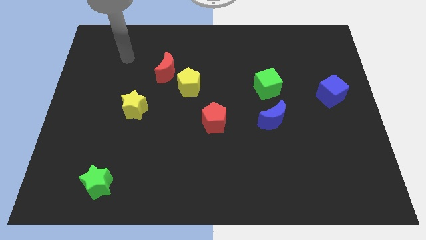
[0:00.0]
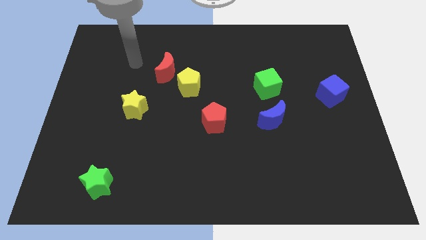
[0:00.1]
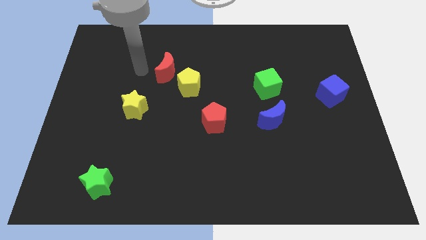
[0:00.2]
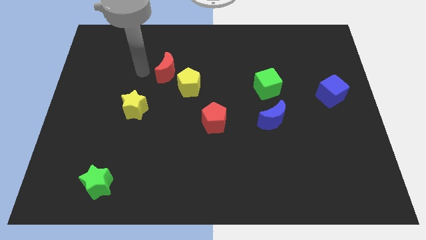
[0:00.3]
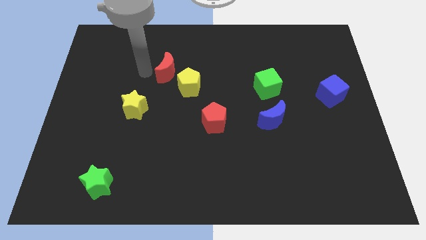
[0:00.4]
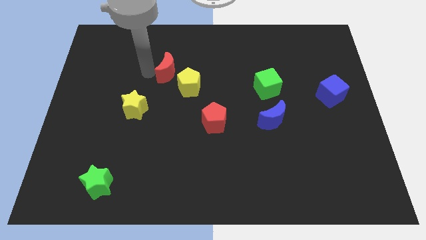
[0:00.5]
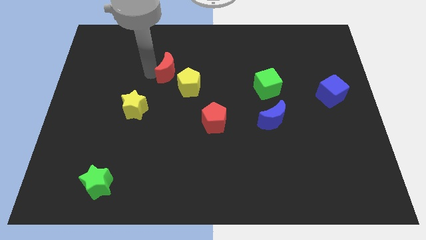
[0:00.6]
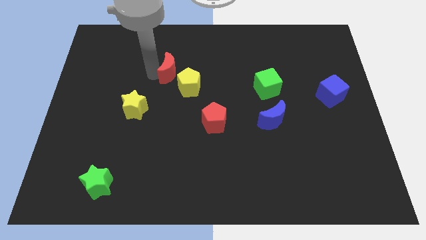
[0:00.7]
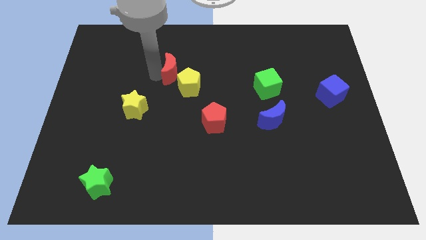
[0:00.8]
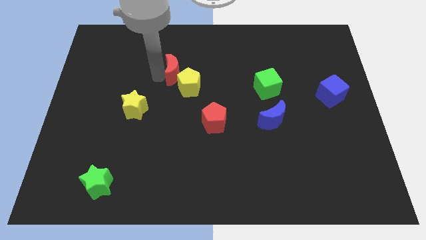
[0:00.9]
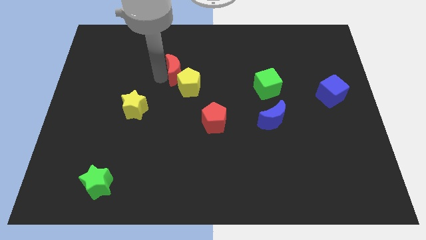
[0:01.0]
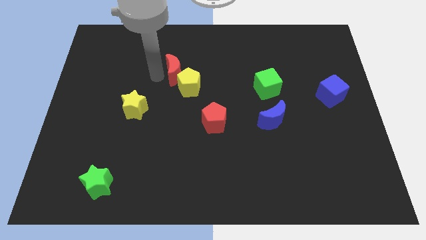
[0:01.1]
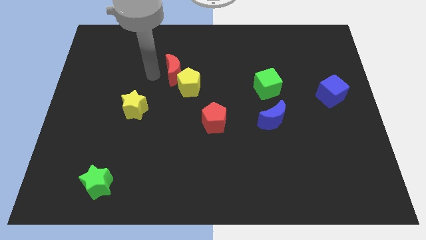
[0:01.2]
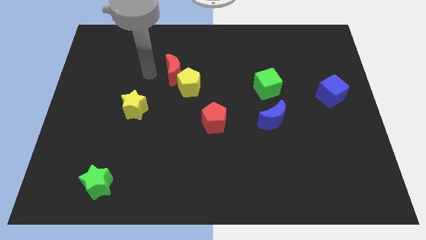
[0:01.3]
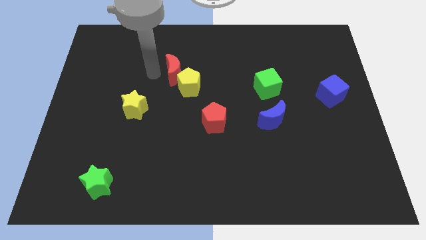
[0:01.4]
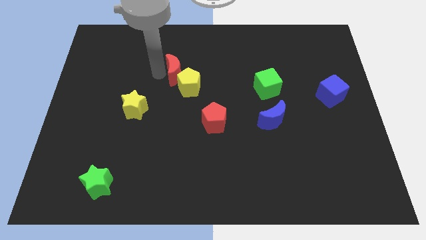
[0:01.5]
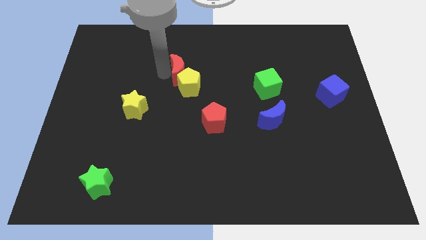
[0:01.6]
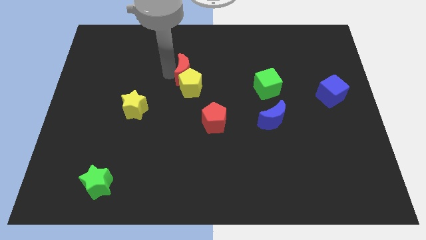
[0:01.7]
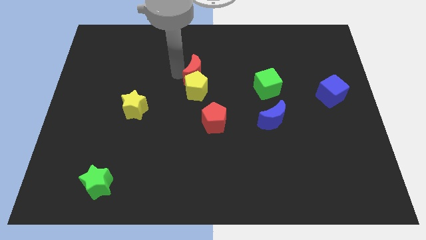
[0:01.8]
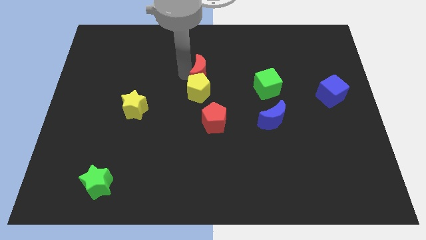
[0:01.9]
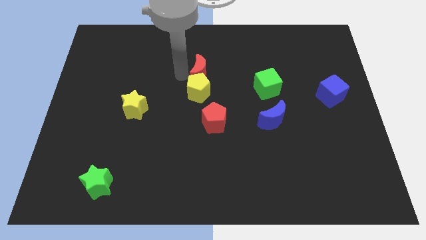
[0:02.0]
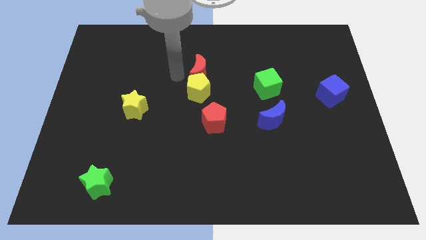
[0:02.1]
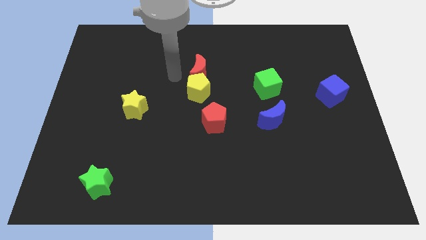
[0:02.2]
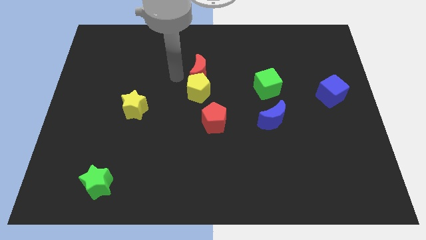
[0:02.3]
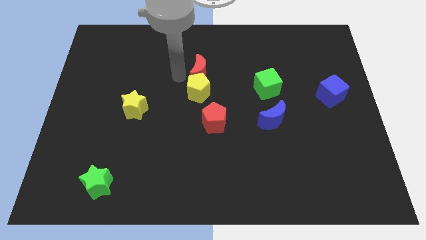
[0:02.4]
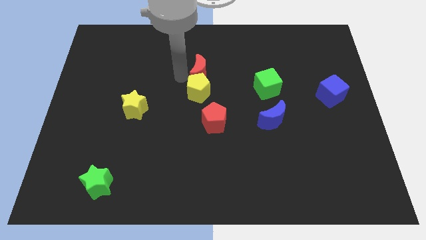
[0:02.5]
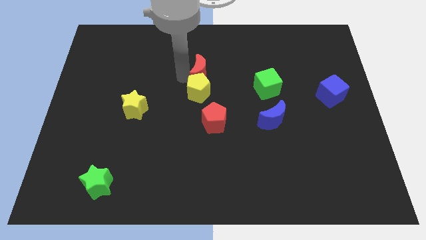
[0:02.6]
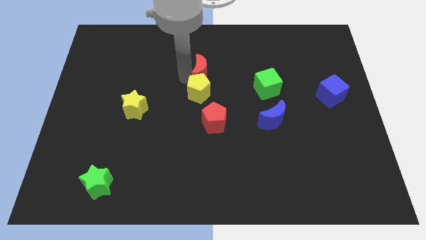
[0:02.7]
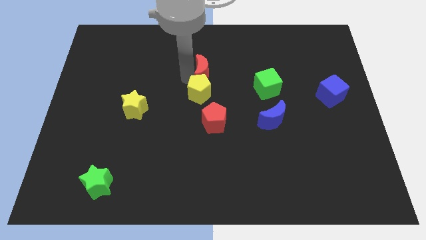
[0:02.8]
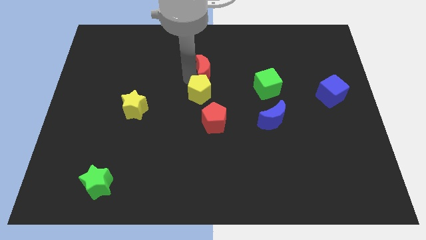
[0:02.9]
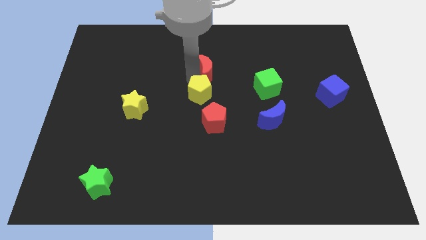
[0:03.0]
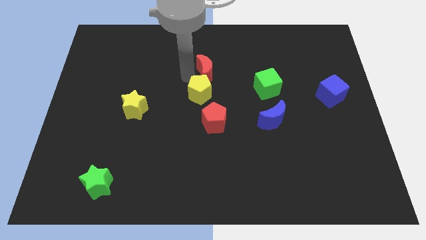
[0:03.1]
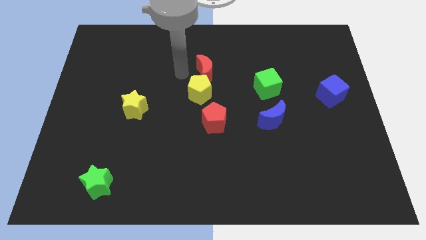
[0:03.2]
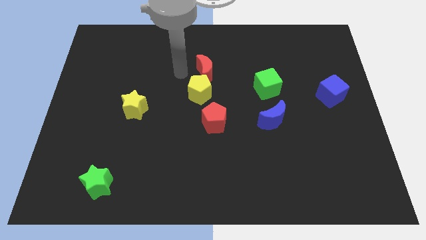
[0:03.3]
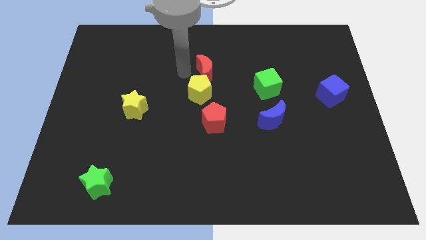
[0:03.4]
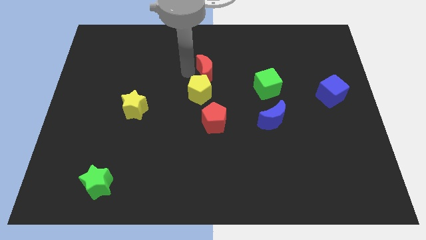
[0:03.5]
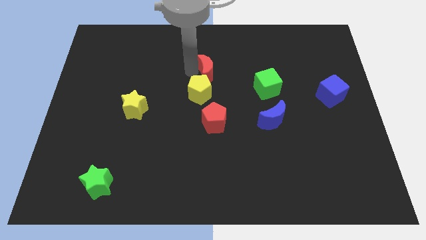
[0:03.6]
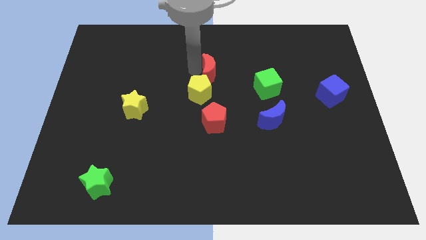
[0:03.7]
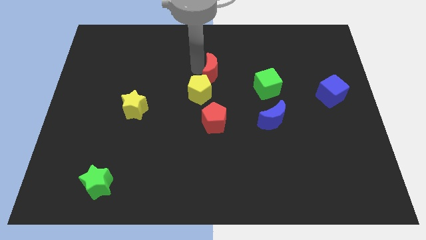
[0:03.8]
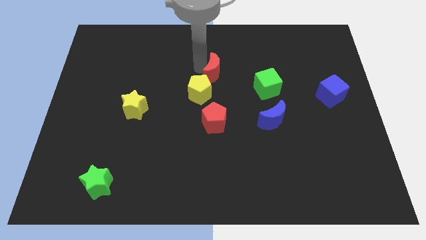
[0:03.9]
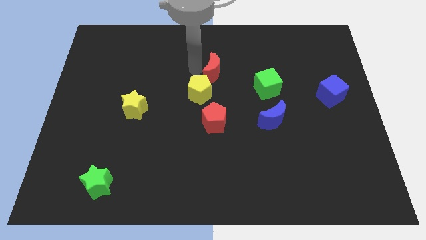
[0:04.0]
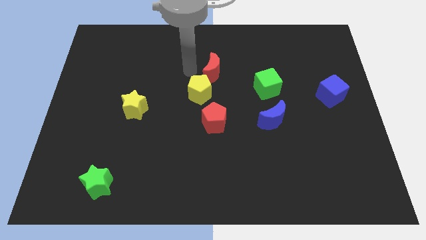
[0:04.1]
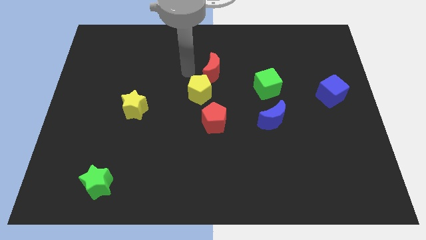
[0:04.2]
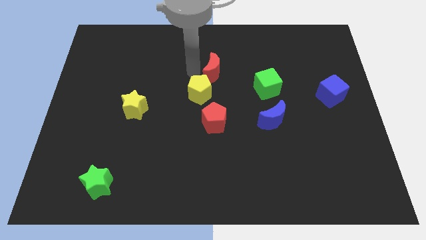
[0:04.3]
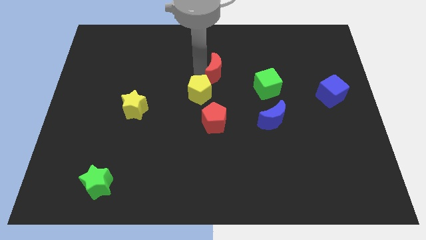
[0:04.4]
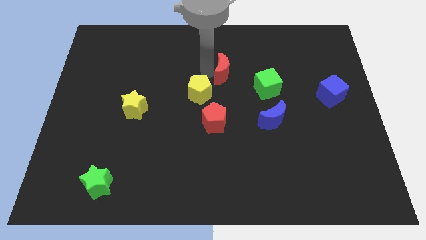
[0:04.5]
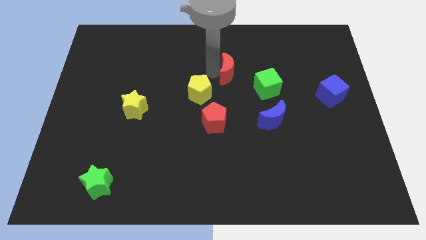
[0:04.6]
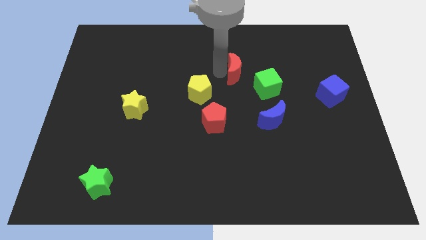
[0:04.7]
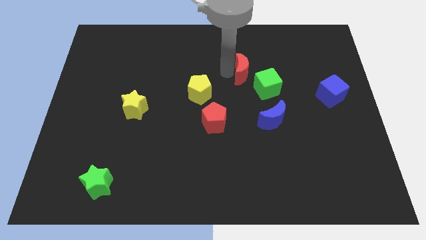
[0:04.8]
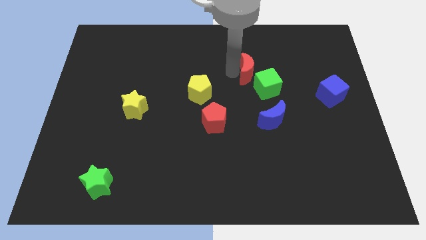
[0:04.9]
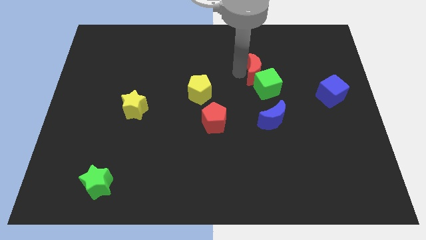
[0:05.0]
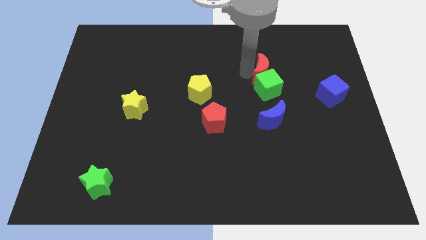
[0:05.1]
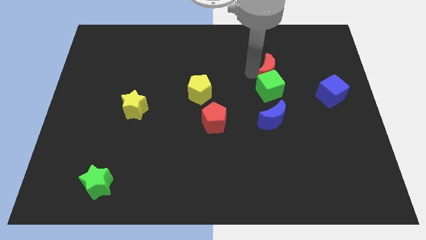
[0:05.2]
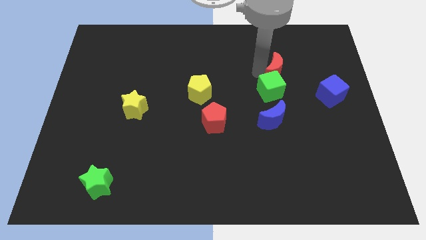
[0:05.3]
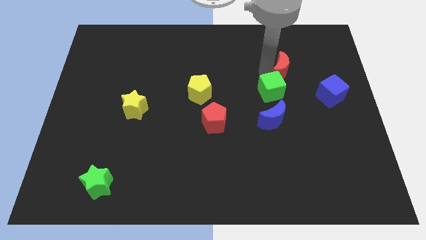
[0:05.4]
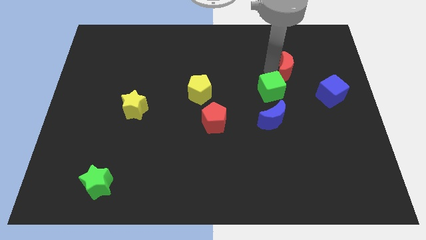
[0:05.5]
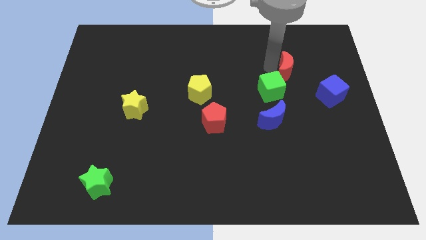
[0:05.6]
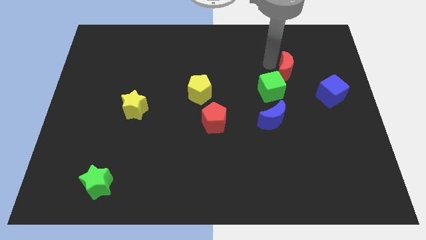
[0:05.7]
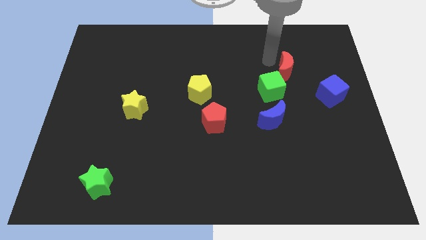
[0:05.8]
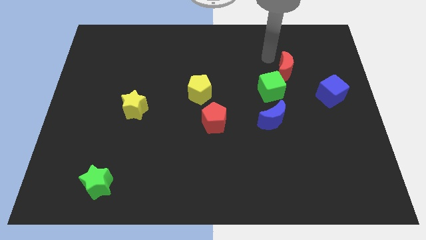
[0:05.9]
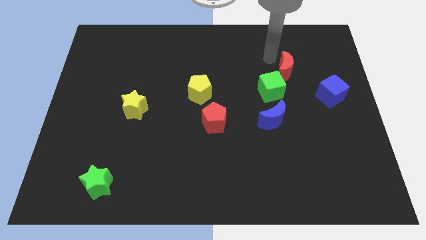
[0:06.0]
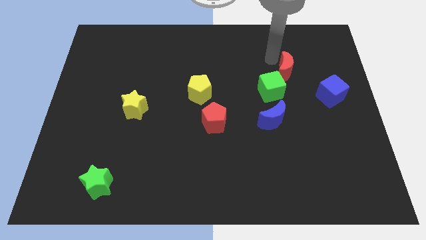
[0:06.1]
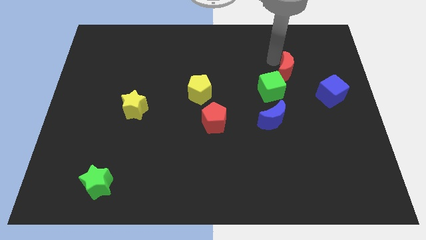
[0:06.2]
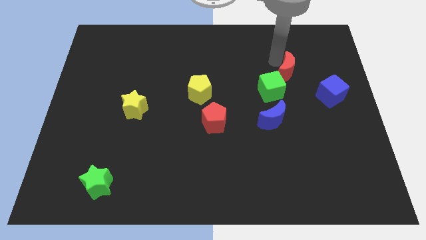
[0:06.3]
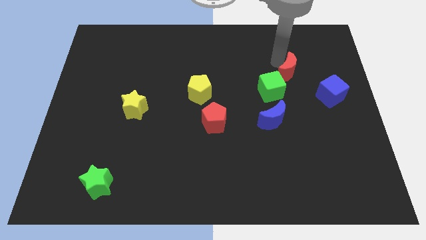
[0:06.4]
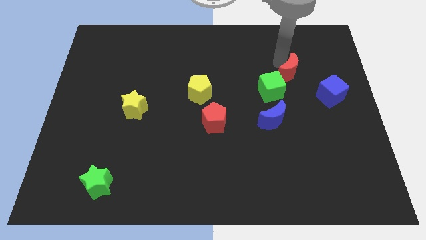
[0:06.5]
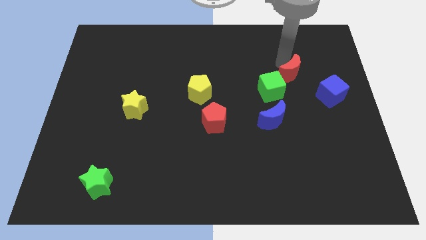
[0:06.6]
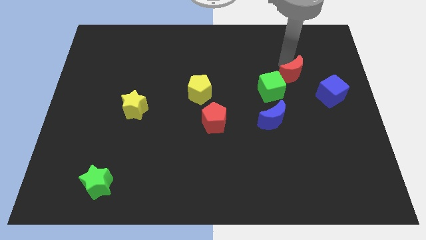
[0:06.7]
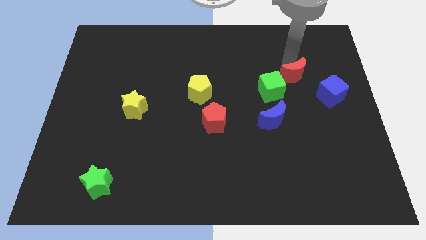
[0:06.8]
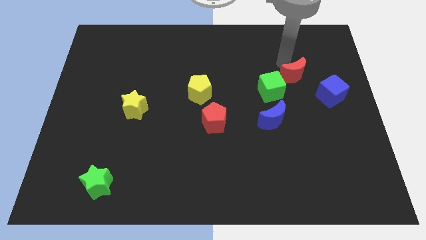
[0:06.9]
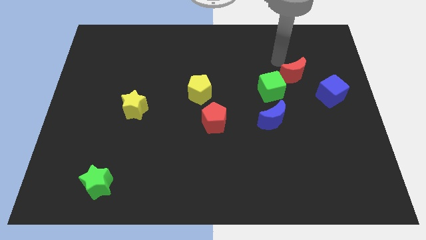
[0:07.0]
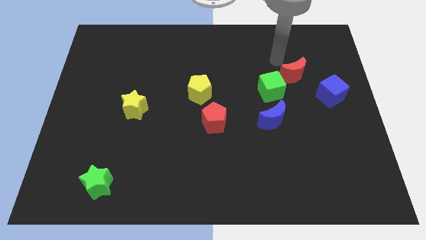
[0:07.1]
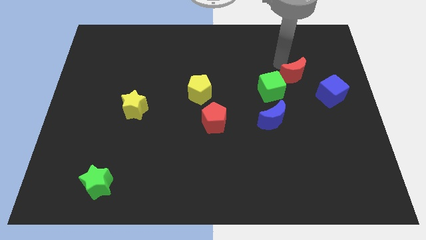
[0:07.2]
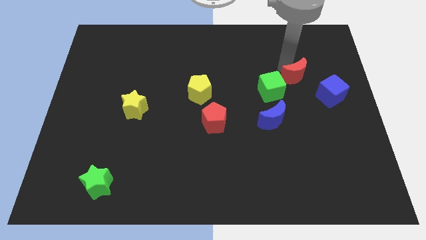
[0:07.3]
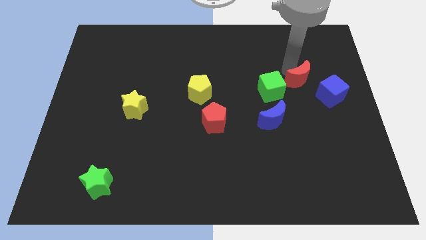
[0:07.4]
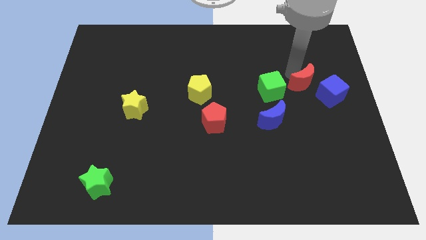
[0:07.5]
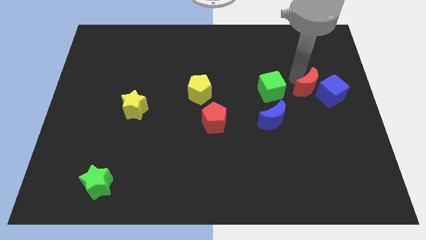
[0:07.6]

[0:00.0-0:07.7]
slide the red moon towards the blue cube
